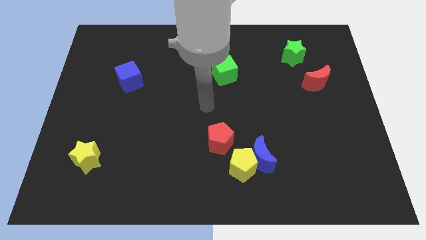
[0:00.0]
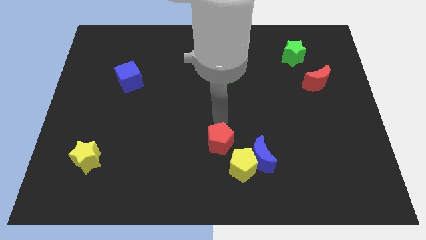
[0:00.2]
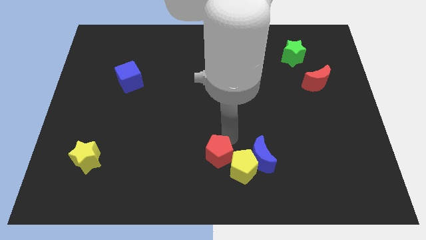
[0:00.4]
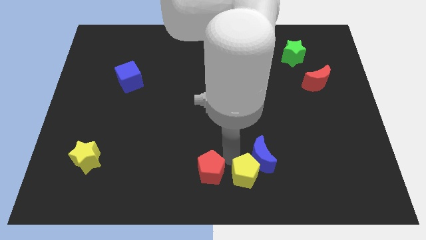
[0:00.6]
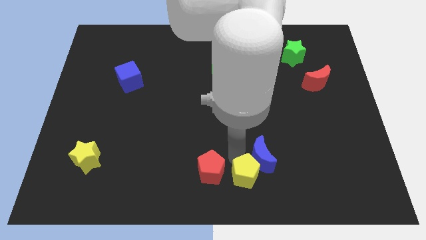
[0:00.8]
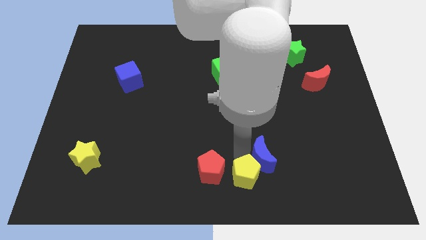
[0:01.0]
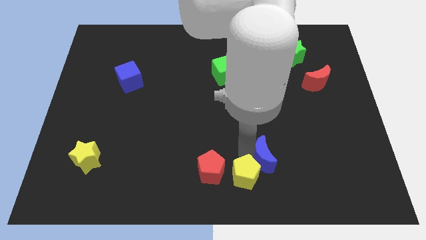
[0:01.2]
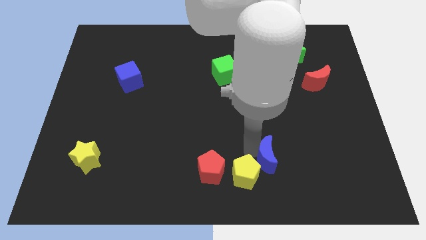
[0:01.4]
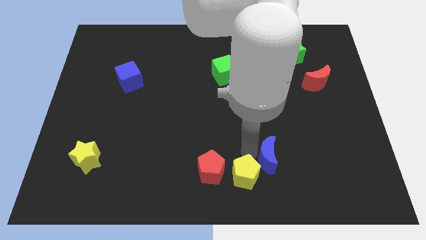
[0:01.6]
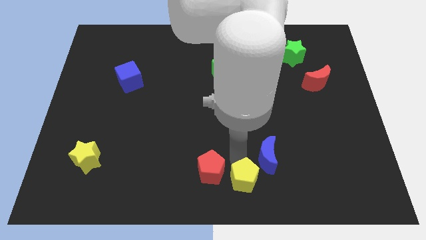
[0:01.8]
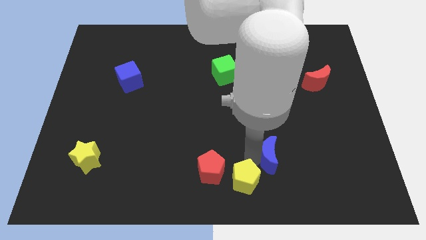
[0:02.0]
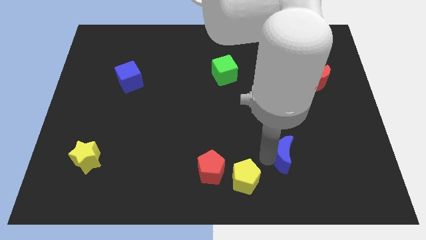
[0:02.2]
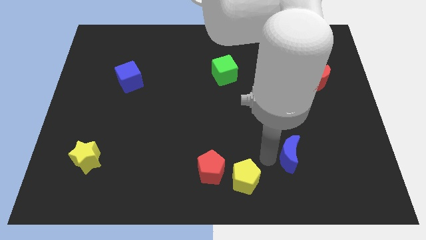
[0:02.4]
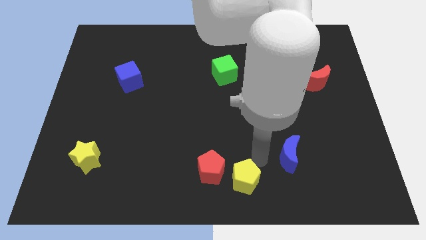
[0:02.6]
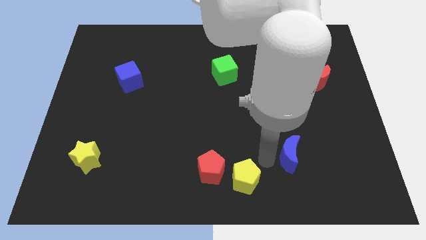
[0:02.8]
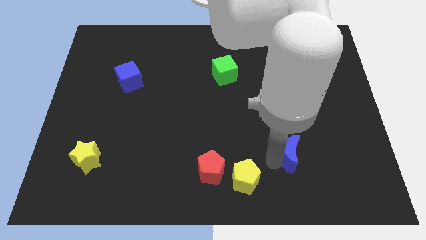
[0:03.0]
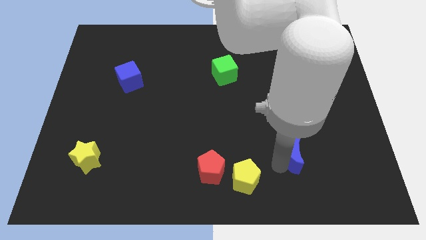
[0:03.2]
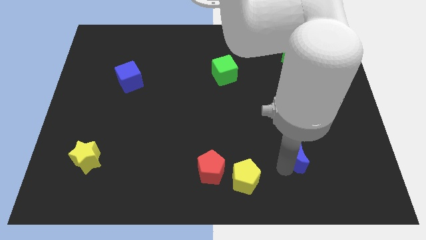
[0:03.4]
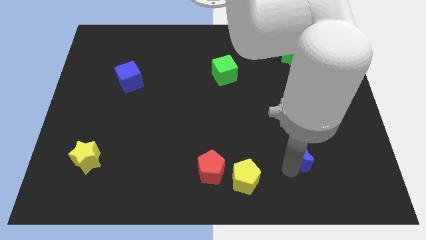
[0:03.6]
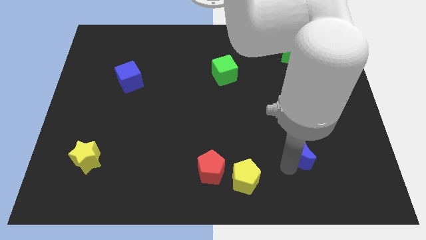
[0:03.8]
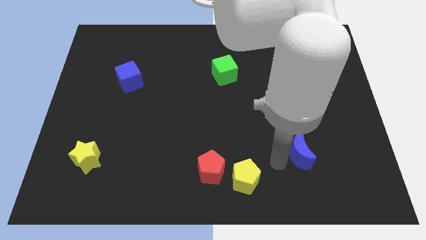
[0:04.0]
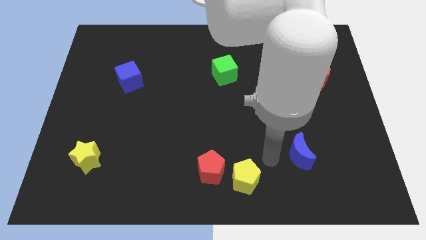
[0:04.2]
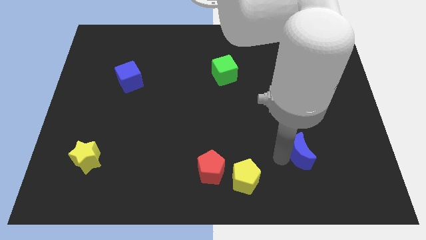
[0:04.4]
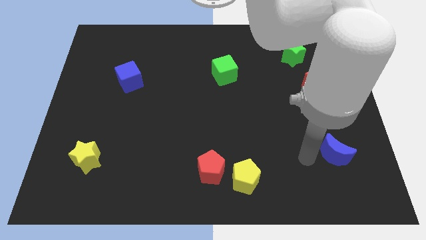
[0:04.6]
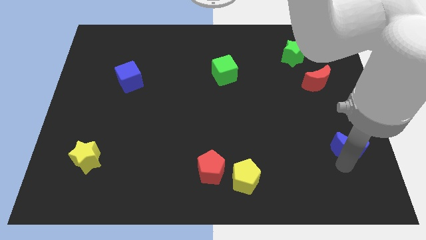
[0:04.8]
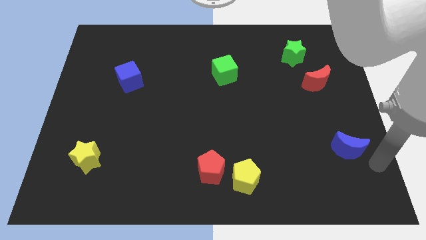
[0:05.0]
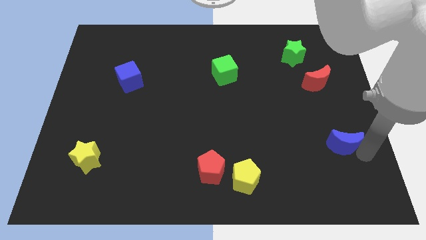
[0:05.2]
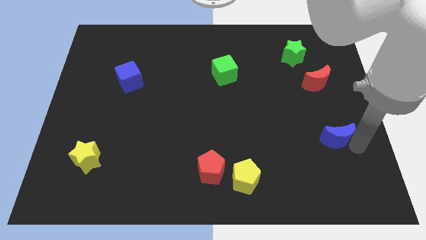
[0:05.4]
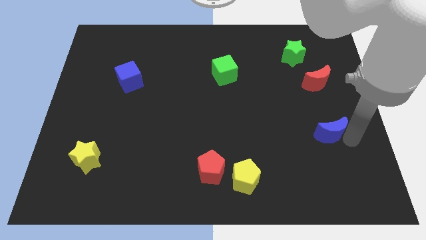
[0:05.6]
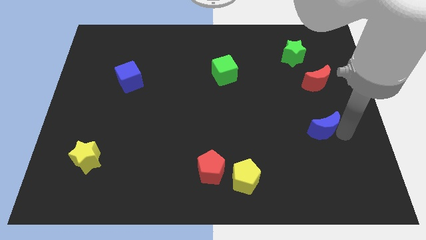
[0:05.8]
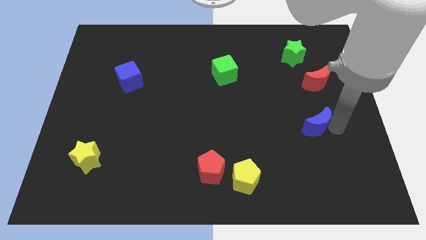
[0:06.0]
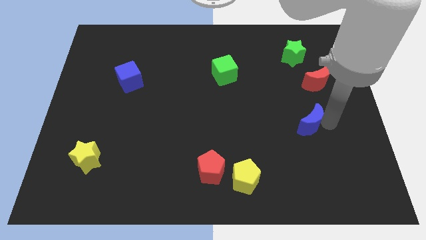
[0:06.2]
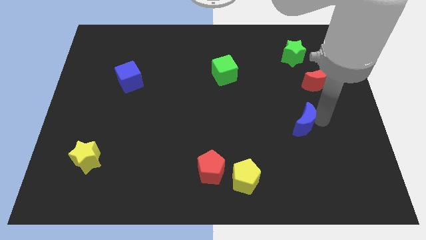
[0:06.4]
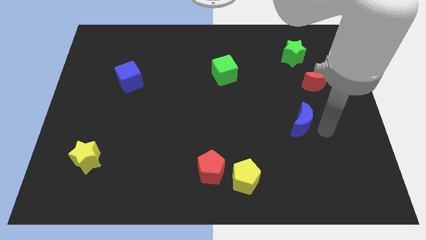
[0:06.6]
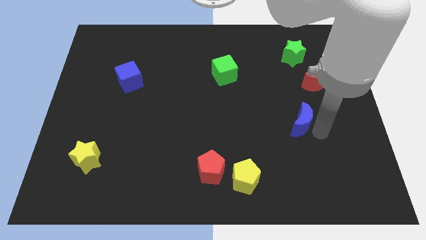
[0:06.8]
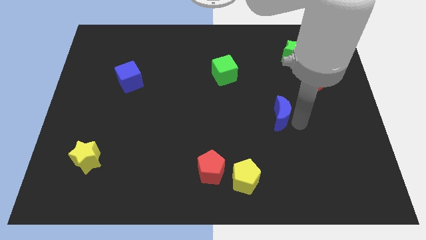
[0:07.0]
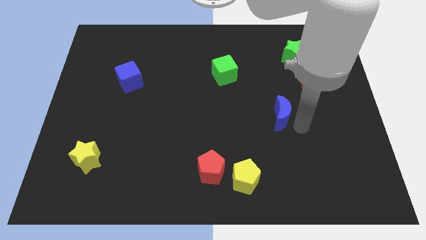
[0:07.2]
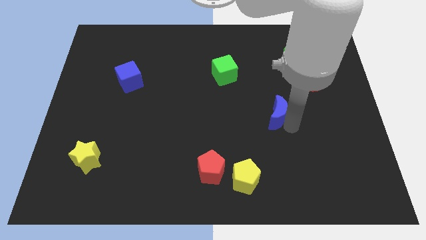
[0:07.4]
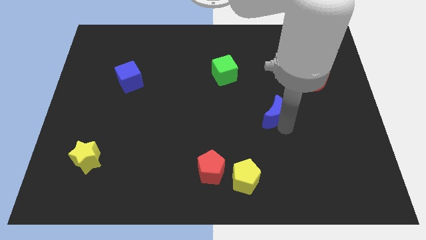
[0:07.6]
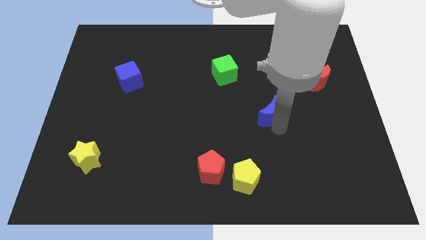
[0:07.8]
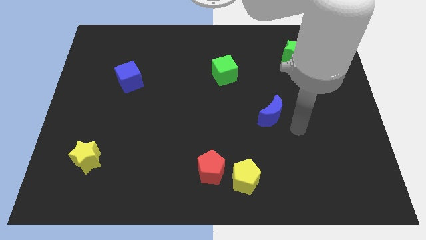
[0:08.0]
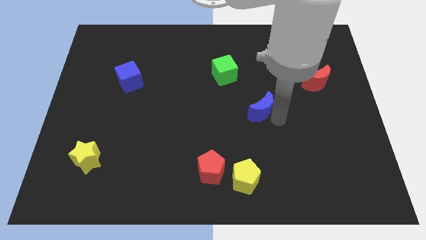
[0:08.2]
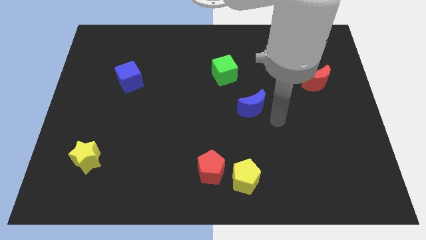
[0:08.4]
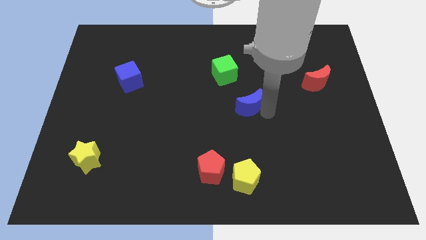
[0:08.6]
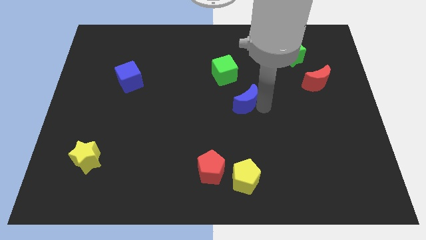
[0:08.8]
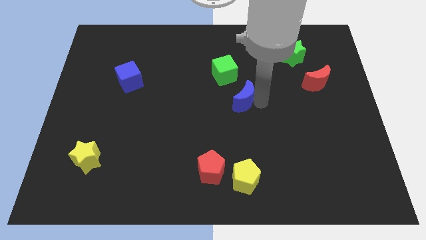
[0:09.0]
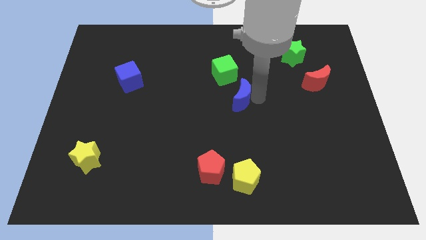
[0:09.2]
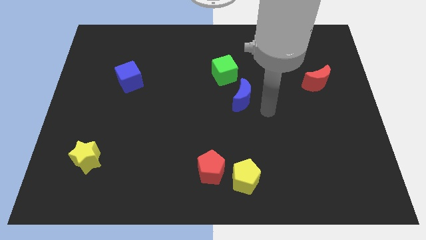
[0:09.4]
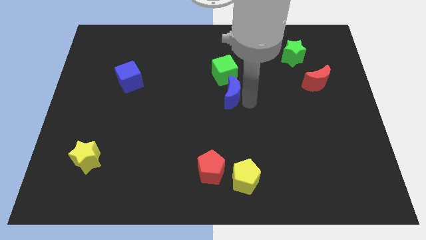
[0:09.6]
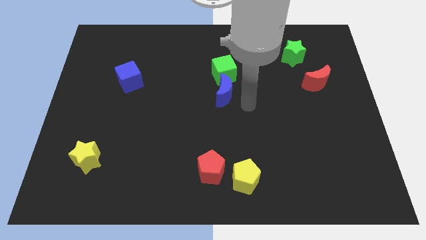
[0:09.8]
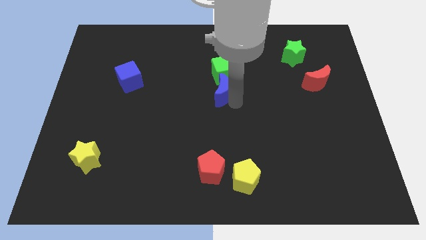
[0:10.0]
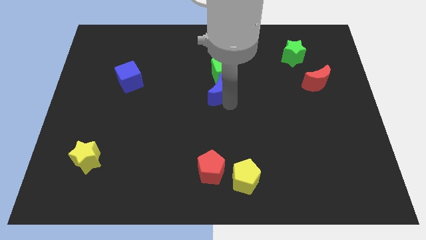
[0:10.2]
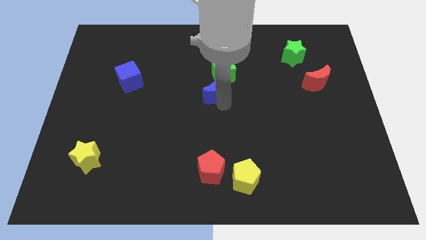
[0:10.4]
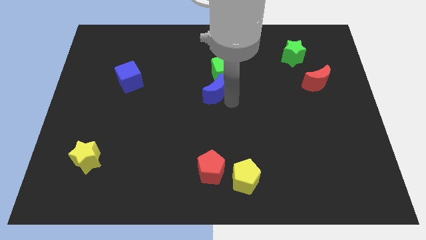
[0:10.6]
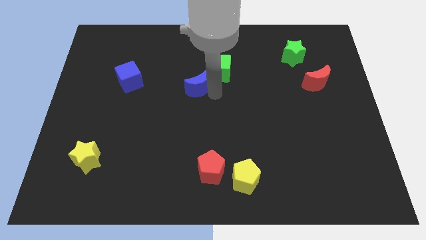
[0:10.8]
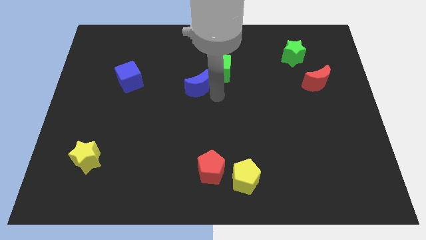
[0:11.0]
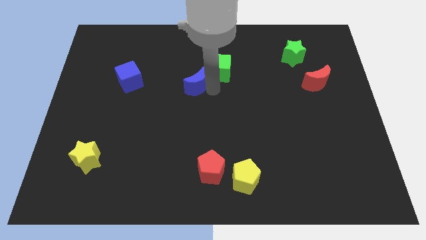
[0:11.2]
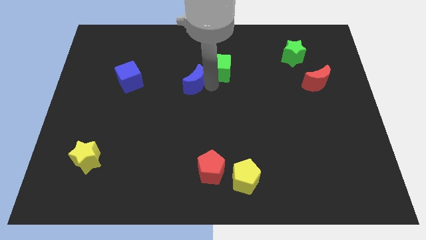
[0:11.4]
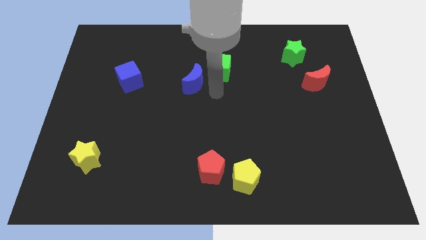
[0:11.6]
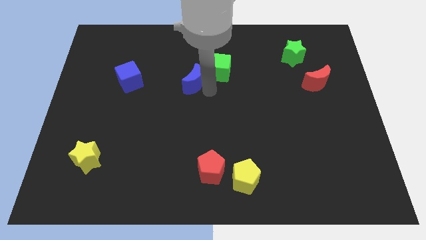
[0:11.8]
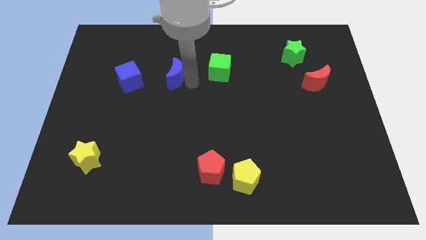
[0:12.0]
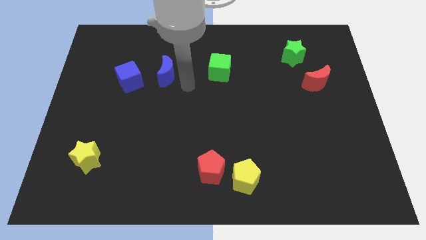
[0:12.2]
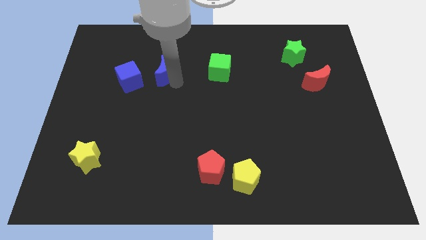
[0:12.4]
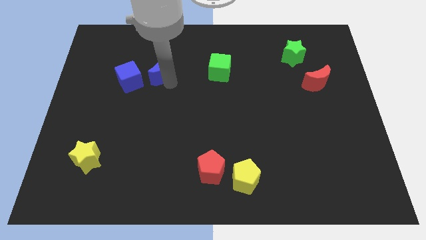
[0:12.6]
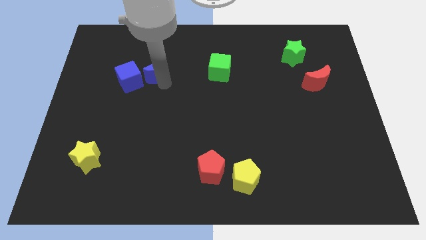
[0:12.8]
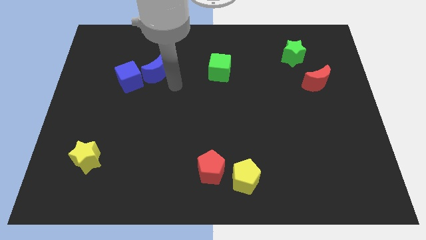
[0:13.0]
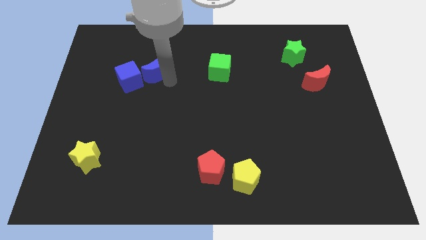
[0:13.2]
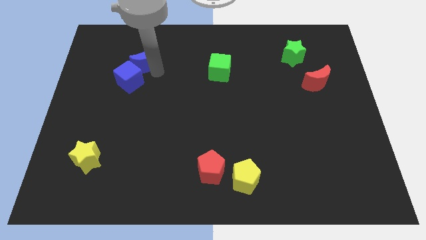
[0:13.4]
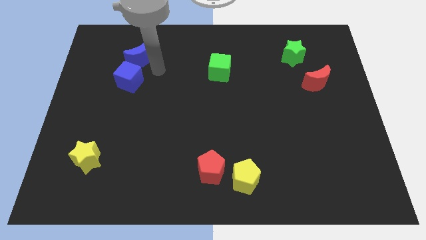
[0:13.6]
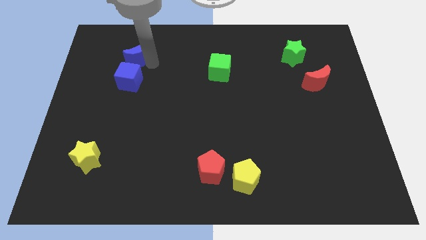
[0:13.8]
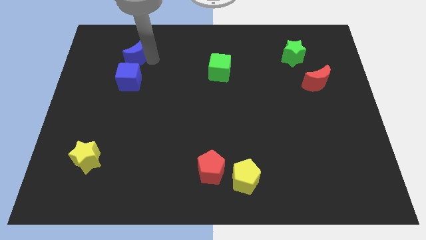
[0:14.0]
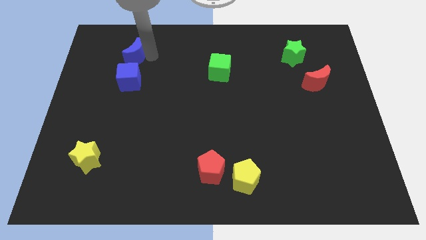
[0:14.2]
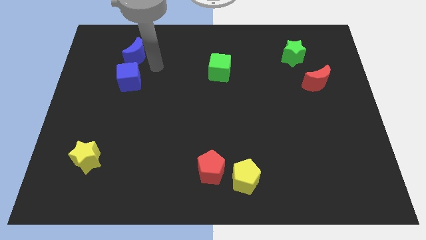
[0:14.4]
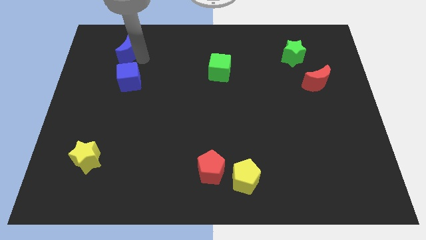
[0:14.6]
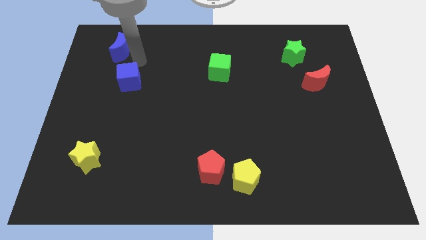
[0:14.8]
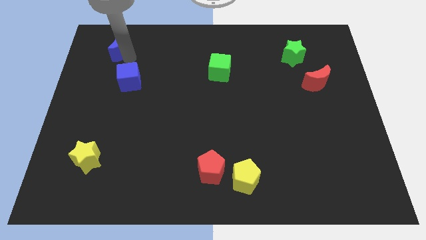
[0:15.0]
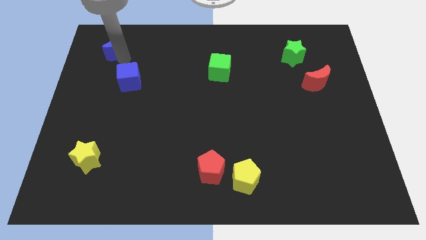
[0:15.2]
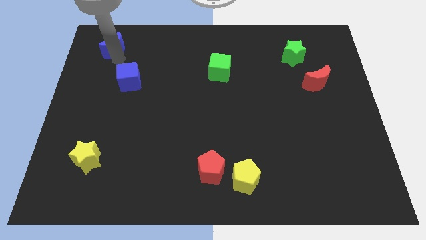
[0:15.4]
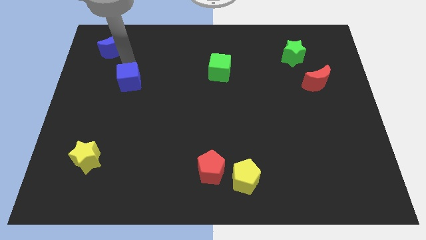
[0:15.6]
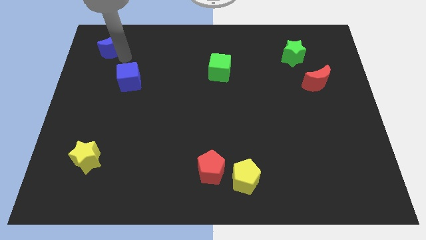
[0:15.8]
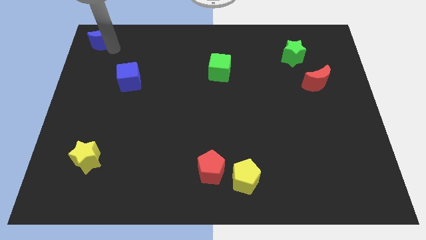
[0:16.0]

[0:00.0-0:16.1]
slide the blue moon to the top left corner
